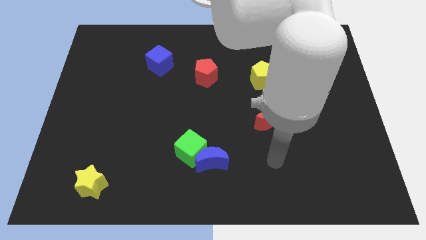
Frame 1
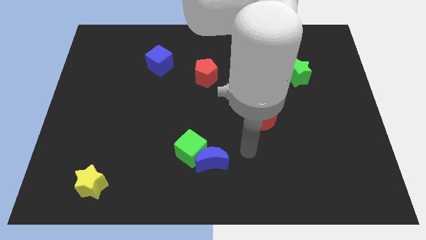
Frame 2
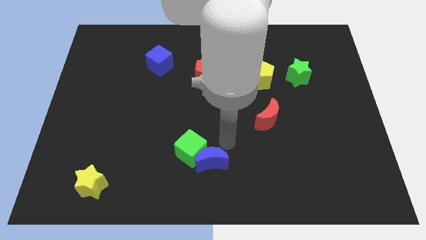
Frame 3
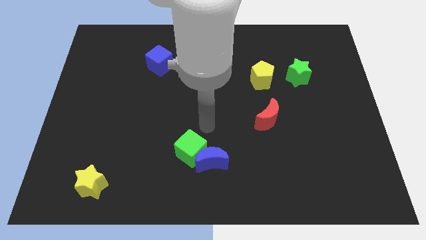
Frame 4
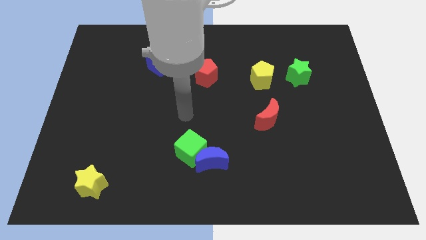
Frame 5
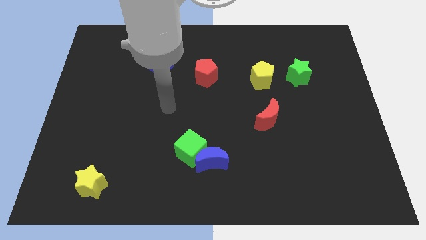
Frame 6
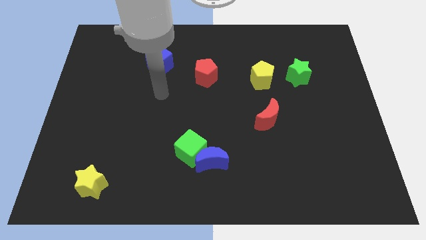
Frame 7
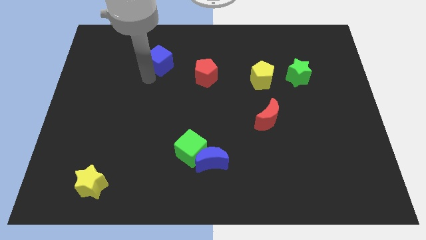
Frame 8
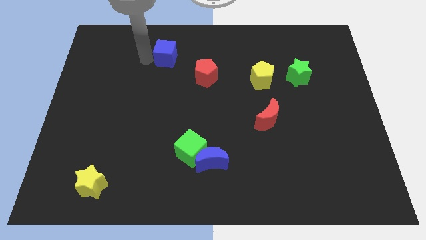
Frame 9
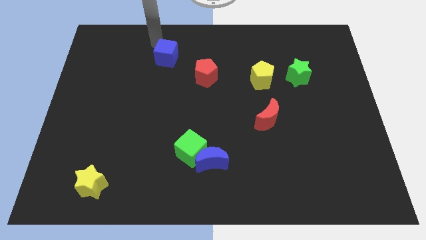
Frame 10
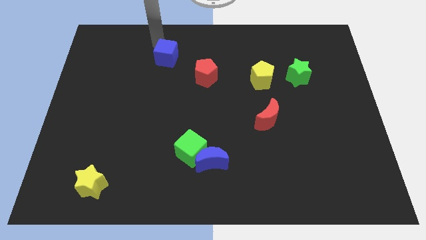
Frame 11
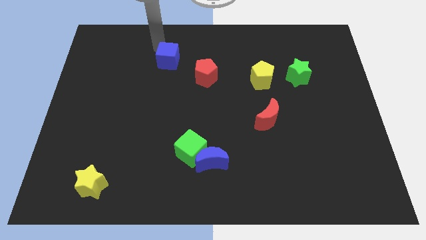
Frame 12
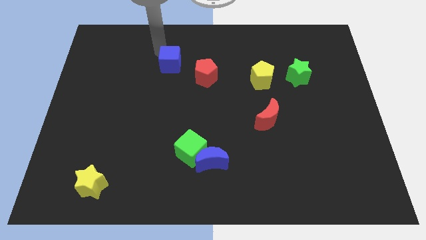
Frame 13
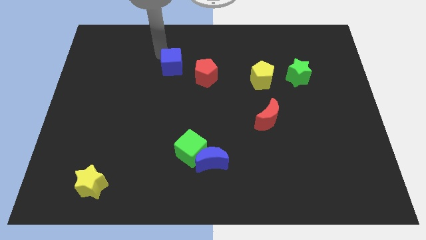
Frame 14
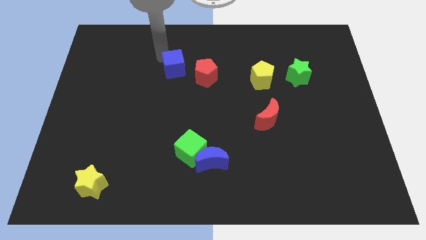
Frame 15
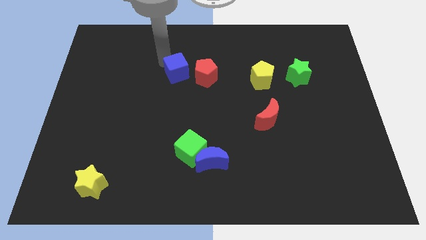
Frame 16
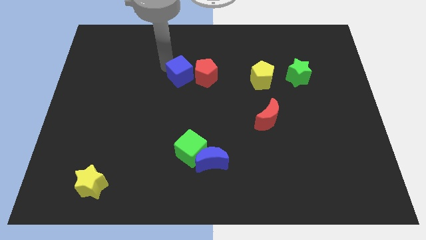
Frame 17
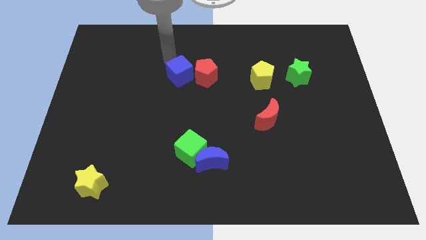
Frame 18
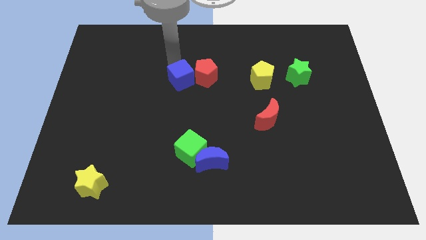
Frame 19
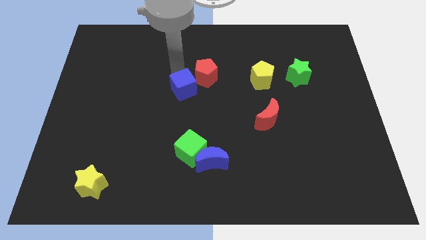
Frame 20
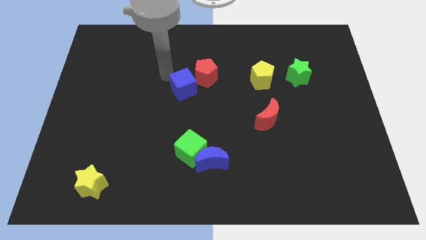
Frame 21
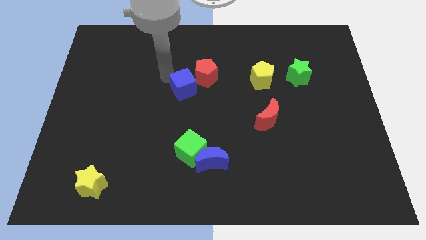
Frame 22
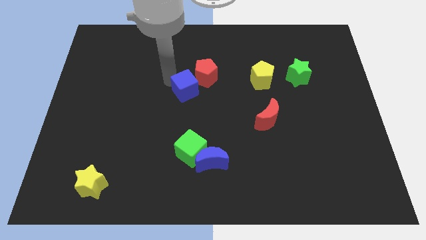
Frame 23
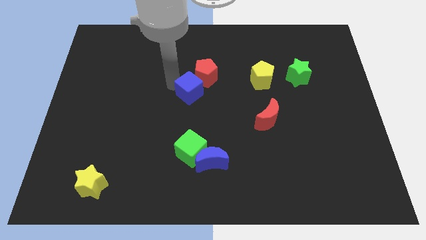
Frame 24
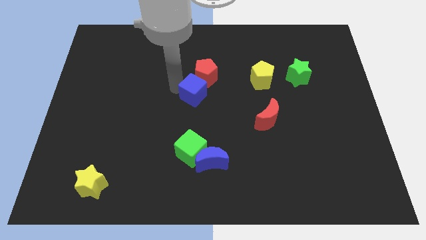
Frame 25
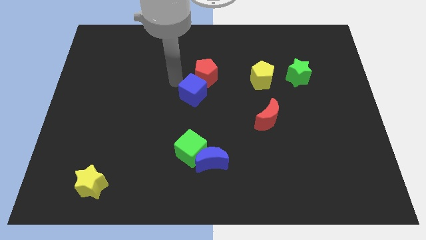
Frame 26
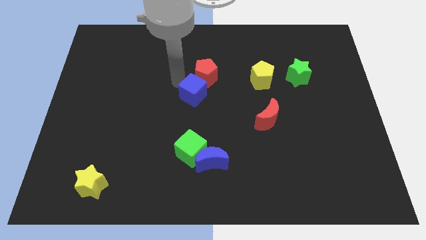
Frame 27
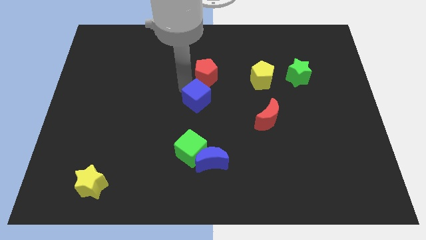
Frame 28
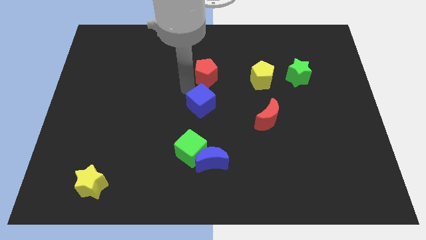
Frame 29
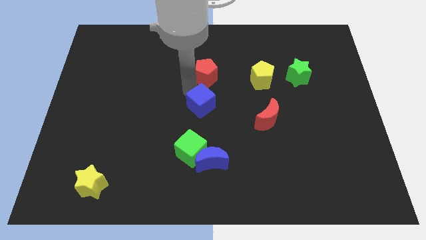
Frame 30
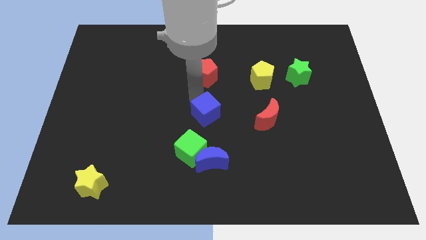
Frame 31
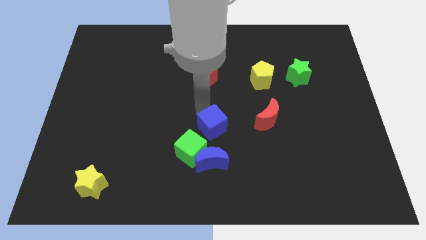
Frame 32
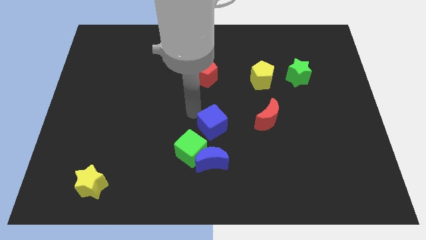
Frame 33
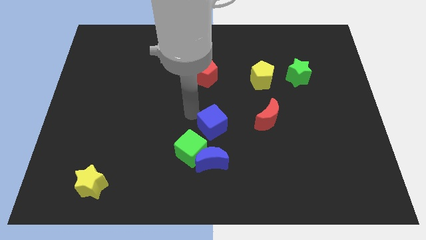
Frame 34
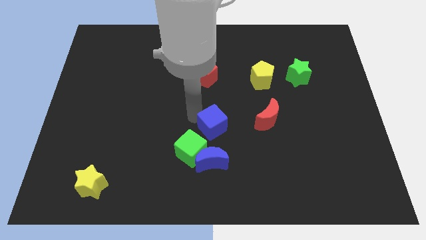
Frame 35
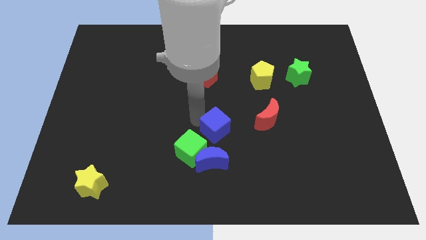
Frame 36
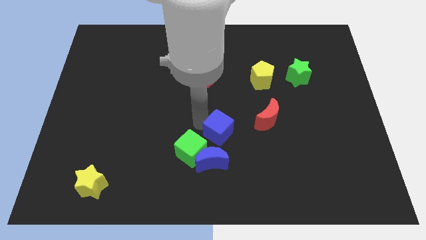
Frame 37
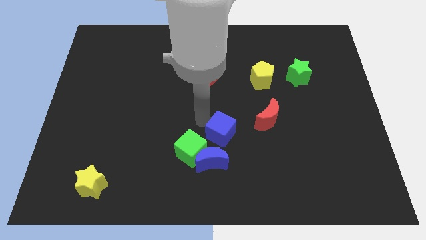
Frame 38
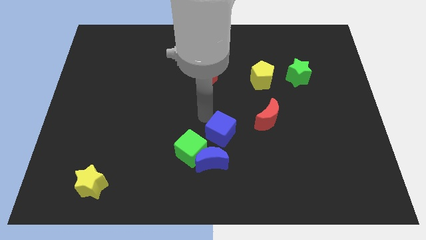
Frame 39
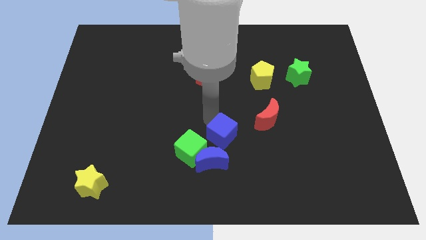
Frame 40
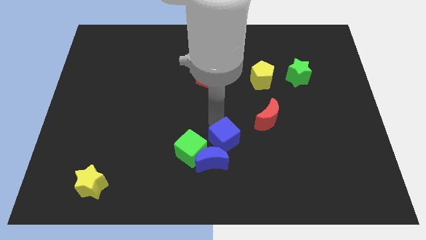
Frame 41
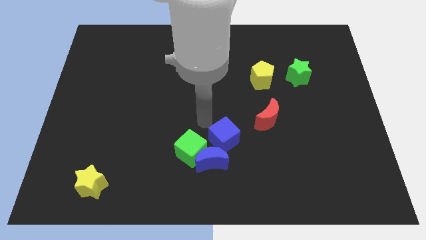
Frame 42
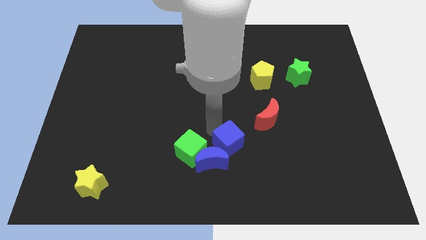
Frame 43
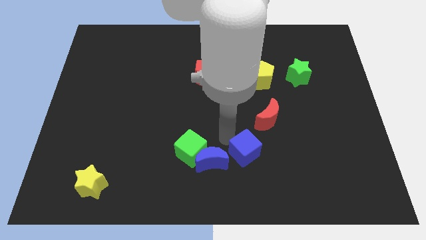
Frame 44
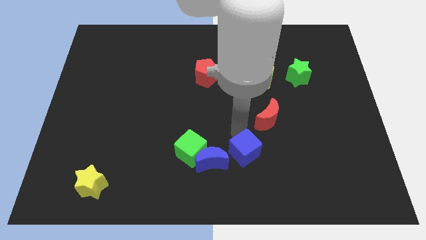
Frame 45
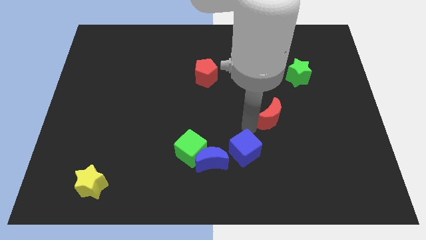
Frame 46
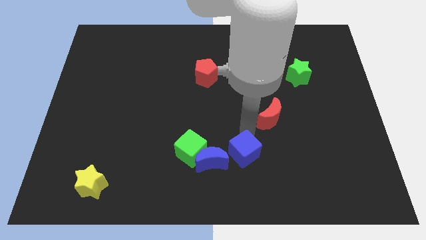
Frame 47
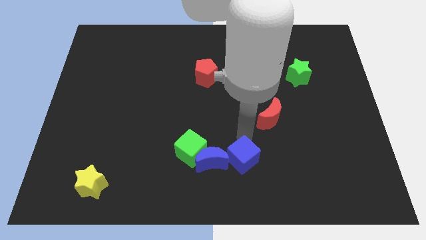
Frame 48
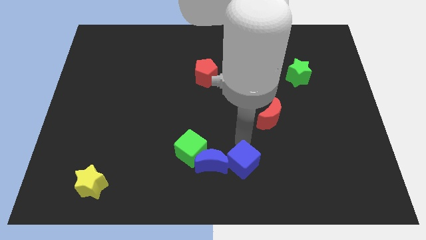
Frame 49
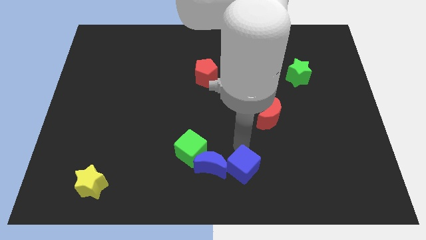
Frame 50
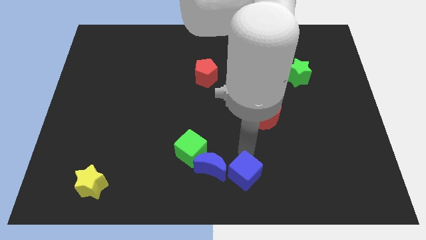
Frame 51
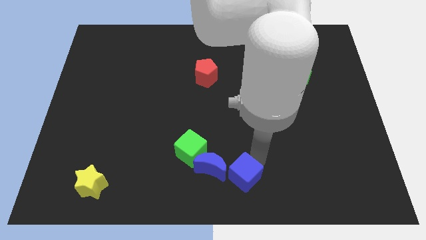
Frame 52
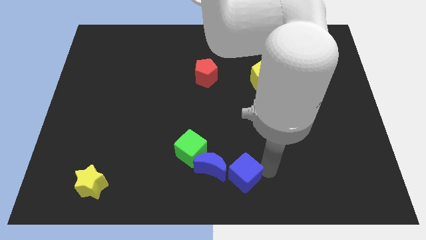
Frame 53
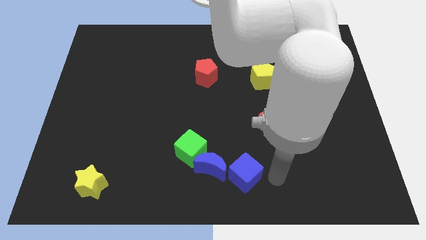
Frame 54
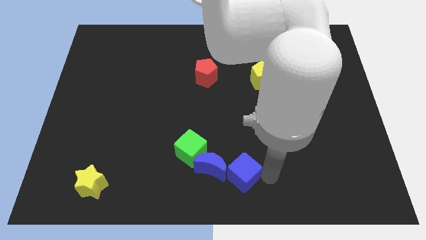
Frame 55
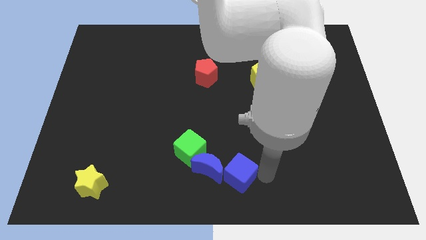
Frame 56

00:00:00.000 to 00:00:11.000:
move the blue cube to the bottom right of the green cube
